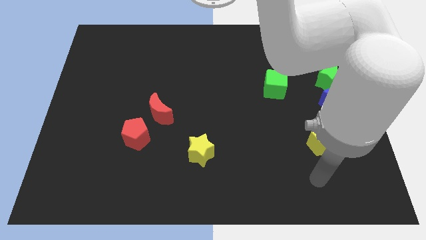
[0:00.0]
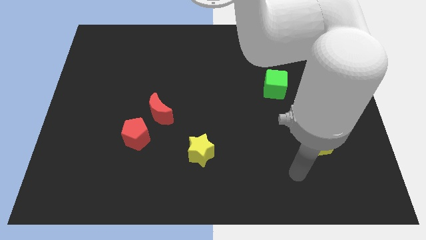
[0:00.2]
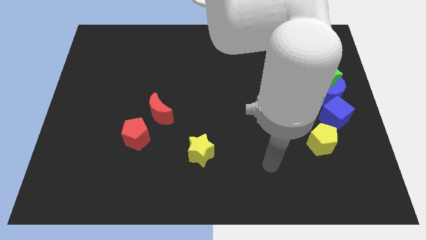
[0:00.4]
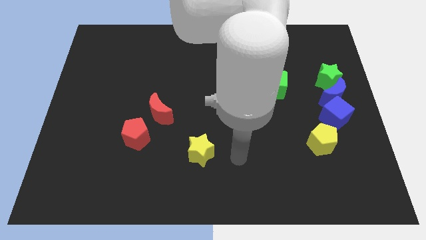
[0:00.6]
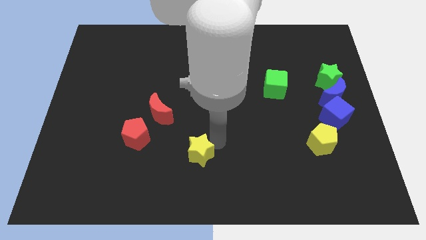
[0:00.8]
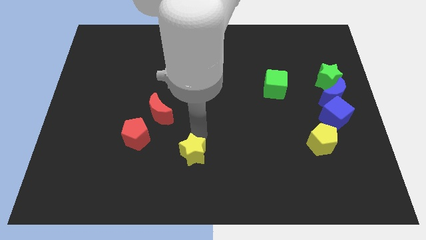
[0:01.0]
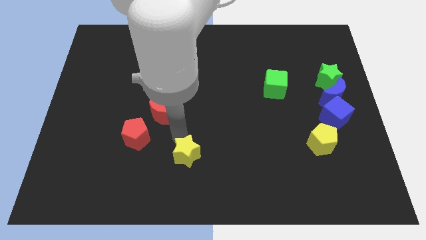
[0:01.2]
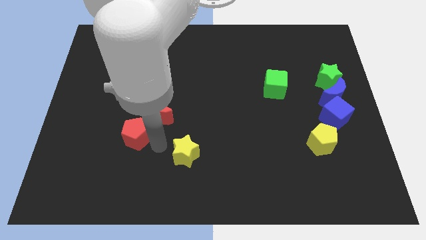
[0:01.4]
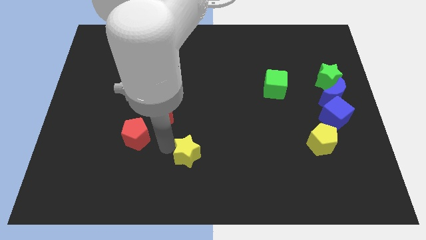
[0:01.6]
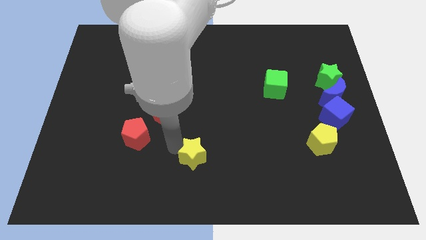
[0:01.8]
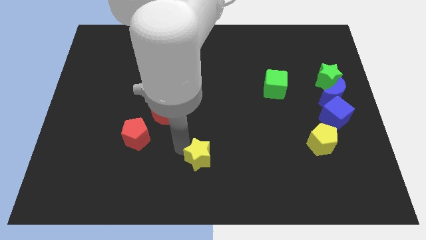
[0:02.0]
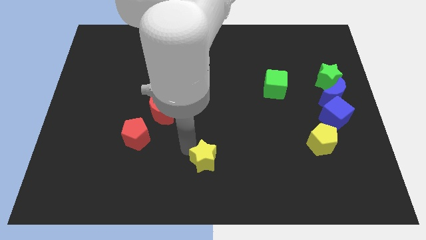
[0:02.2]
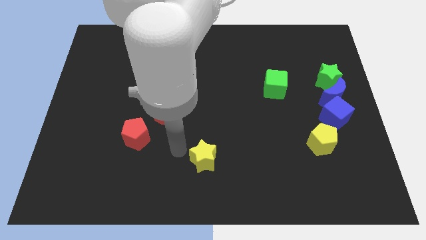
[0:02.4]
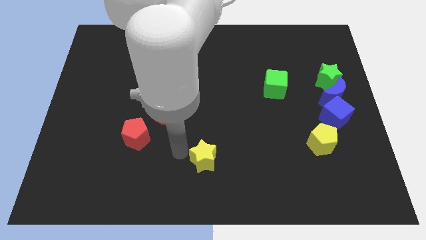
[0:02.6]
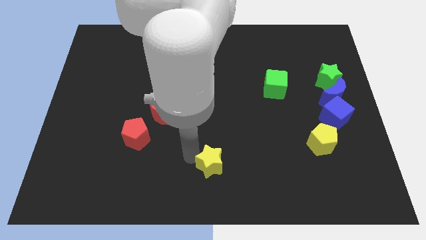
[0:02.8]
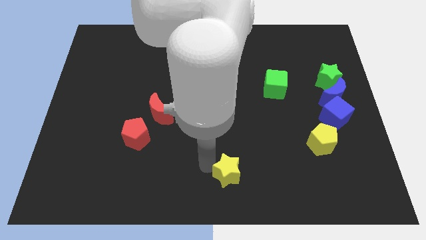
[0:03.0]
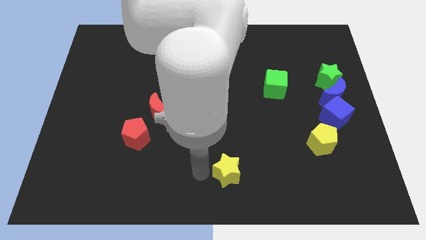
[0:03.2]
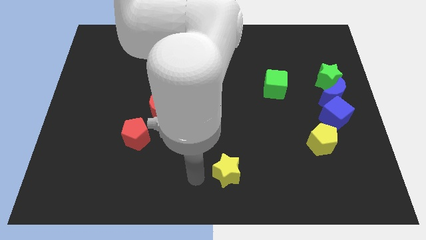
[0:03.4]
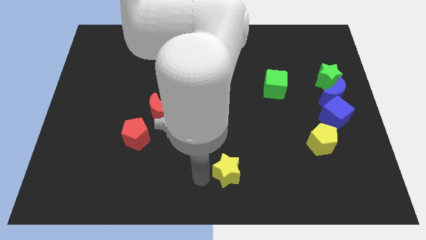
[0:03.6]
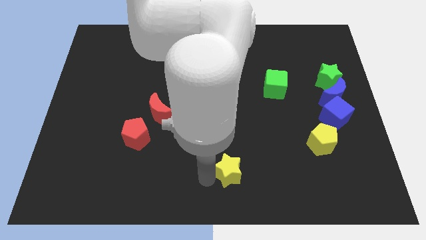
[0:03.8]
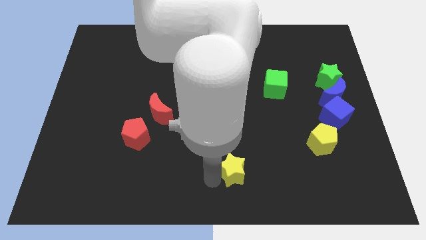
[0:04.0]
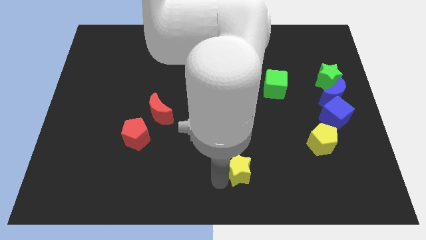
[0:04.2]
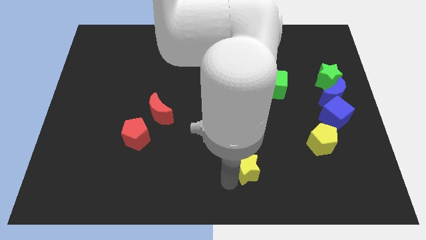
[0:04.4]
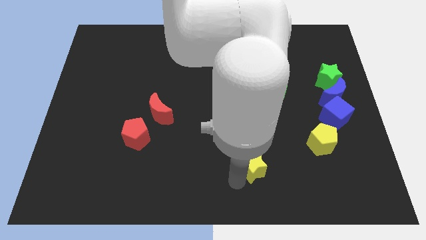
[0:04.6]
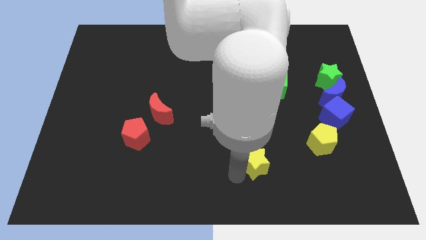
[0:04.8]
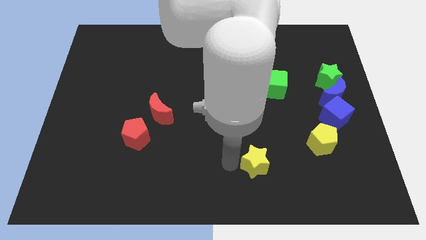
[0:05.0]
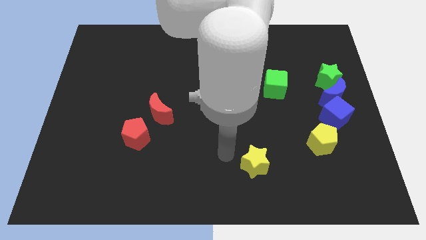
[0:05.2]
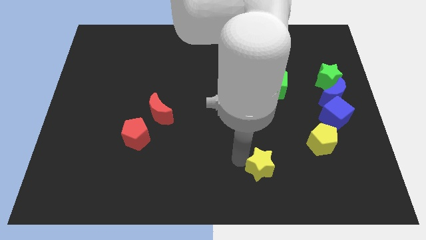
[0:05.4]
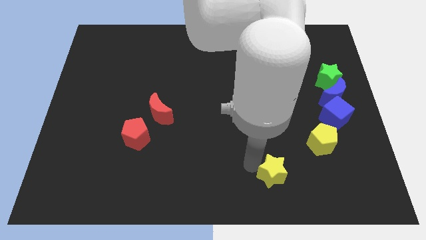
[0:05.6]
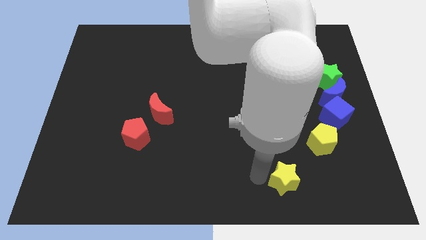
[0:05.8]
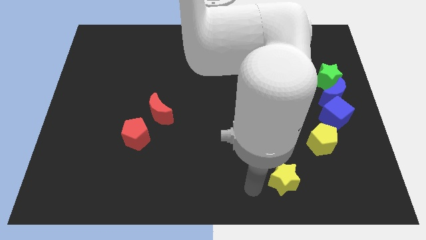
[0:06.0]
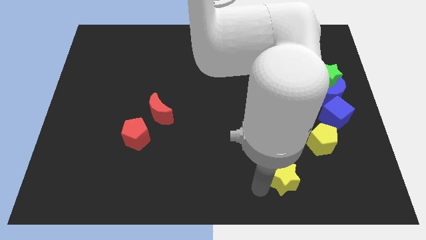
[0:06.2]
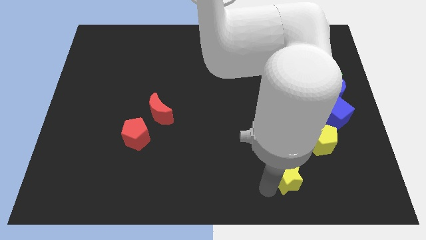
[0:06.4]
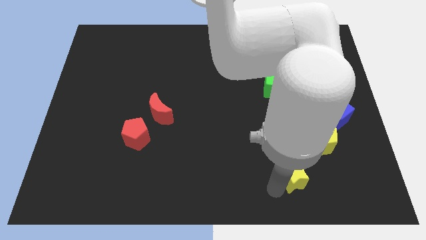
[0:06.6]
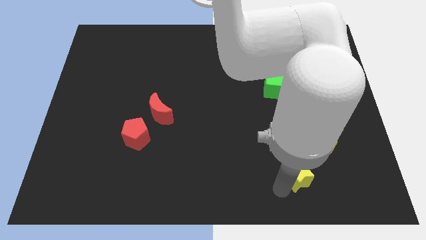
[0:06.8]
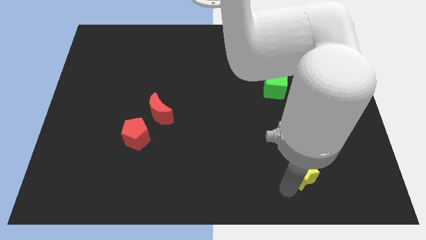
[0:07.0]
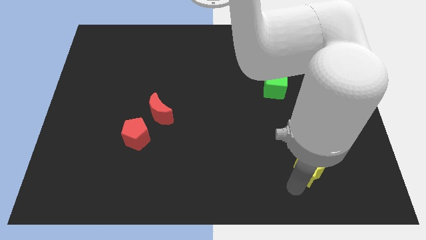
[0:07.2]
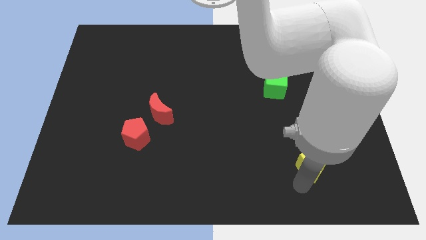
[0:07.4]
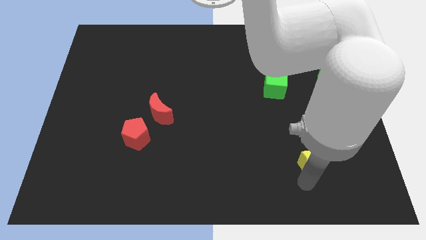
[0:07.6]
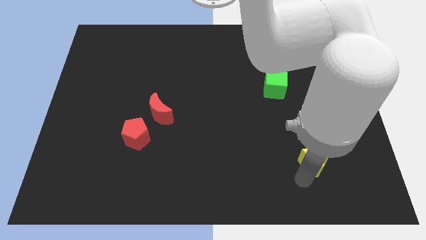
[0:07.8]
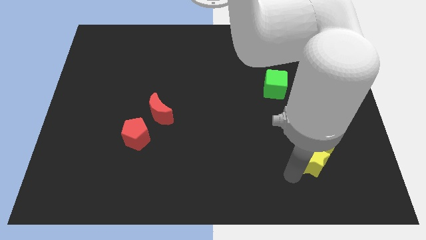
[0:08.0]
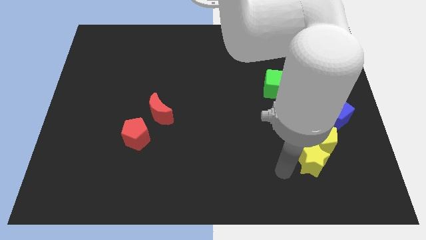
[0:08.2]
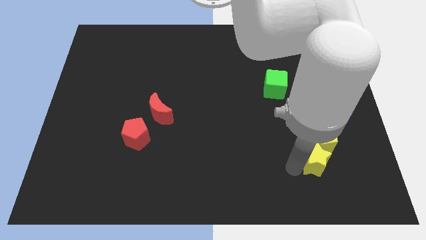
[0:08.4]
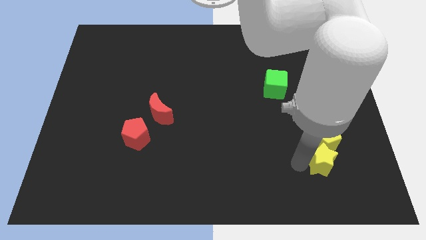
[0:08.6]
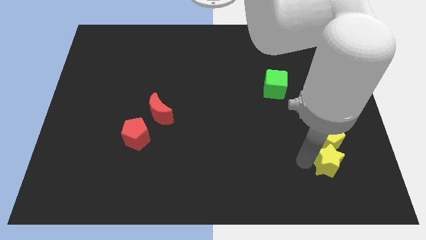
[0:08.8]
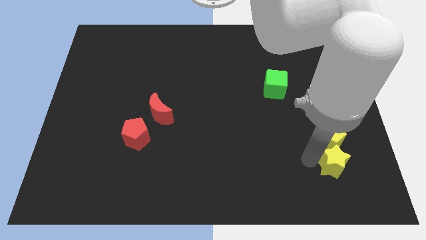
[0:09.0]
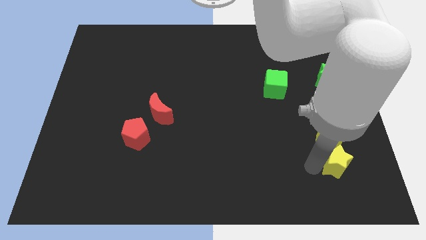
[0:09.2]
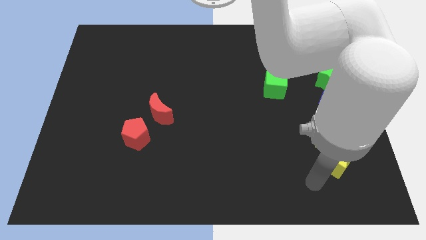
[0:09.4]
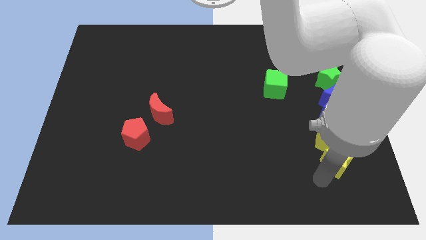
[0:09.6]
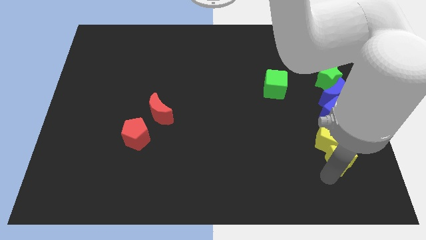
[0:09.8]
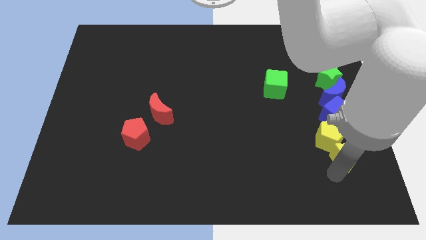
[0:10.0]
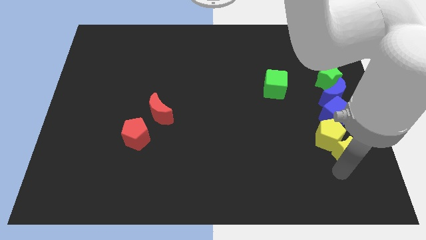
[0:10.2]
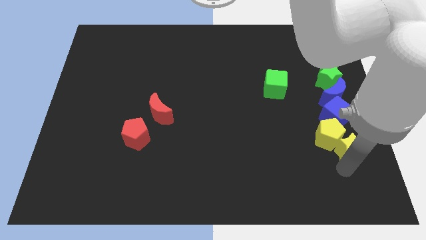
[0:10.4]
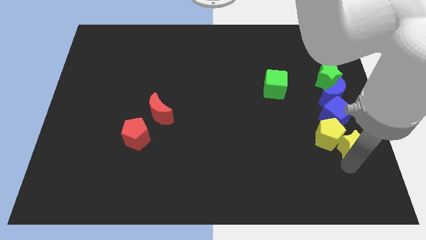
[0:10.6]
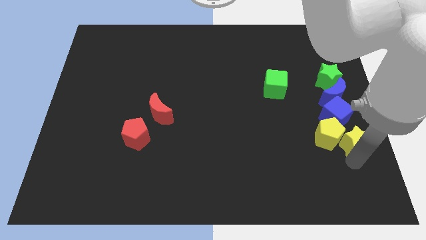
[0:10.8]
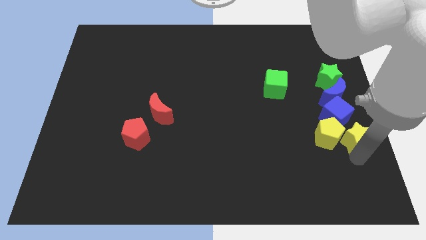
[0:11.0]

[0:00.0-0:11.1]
put the yellow star to the center right

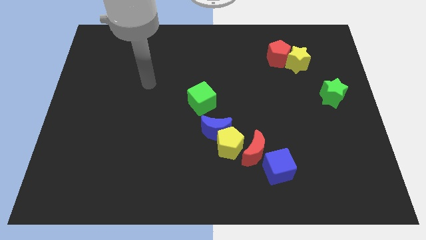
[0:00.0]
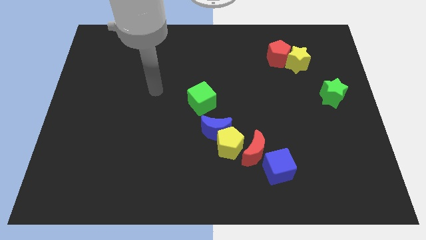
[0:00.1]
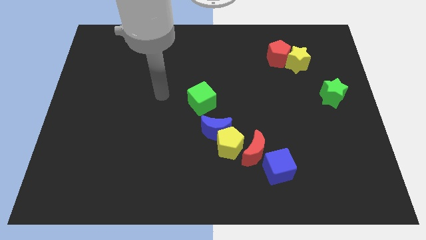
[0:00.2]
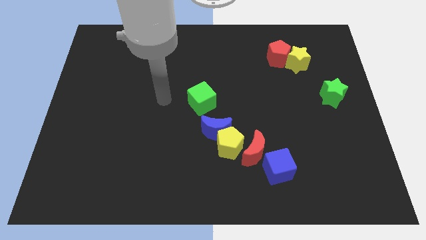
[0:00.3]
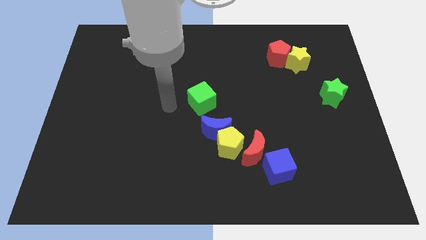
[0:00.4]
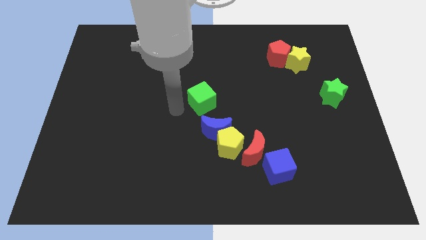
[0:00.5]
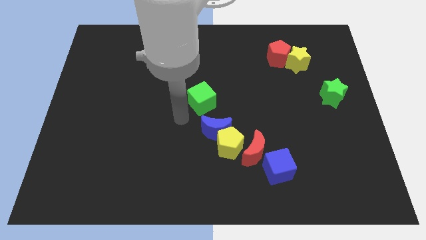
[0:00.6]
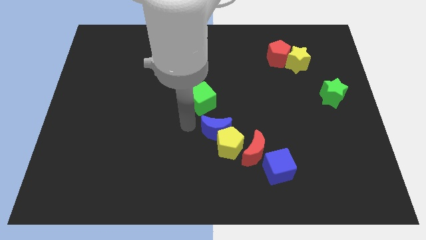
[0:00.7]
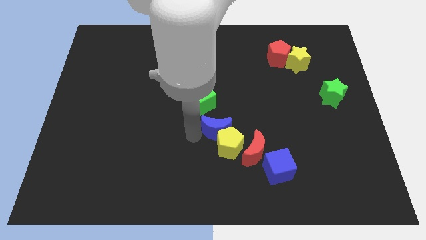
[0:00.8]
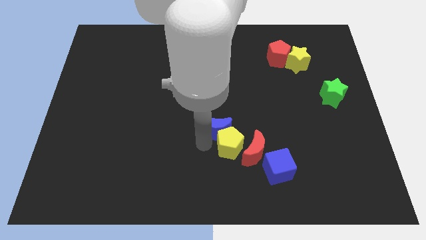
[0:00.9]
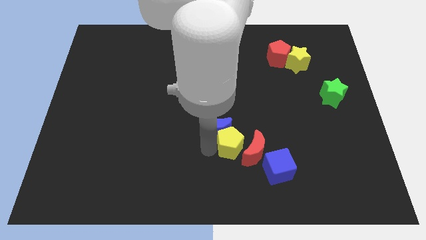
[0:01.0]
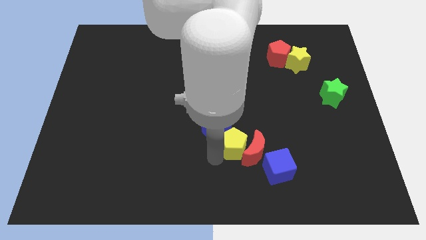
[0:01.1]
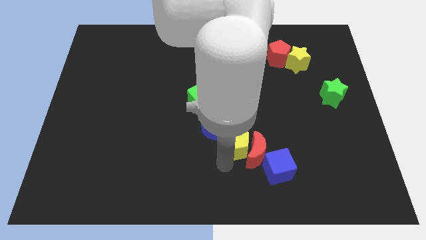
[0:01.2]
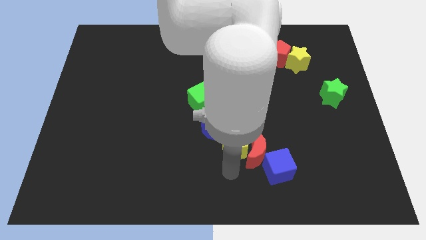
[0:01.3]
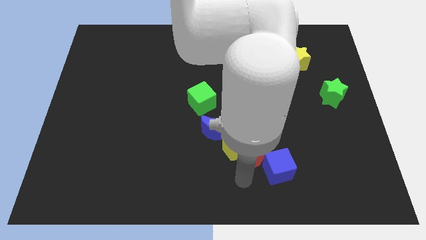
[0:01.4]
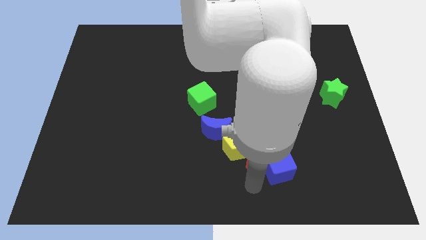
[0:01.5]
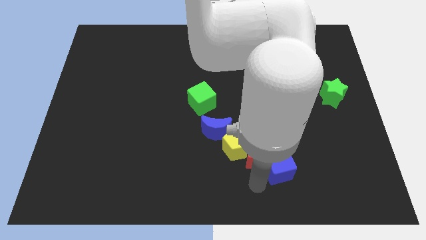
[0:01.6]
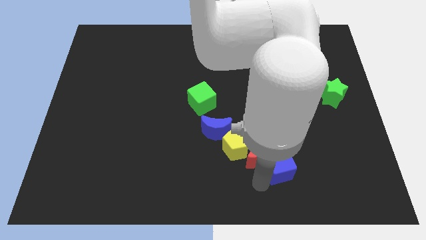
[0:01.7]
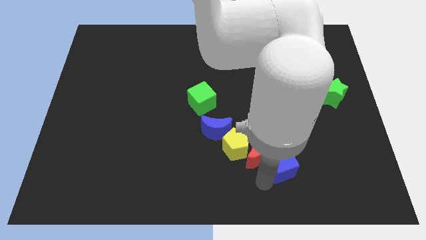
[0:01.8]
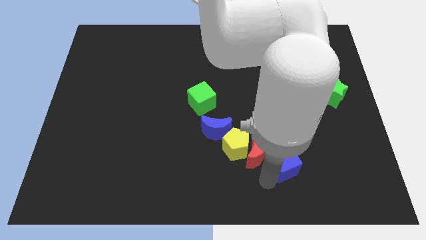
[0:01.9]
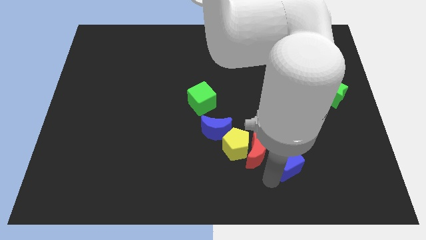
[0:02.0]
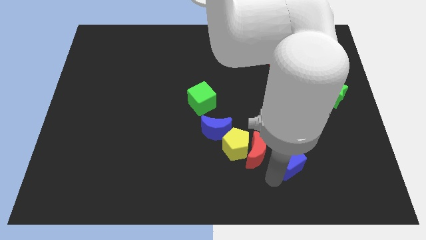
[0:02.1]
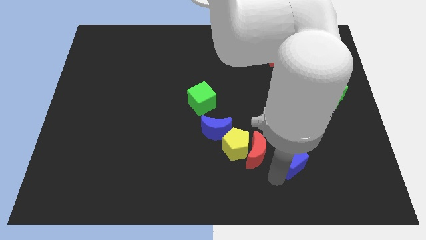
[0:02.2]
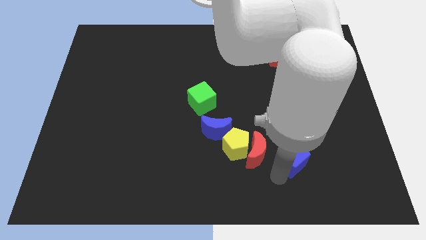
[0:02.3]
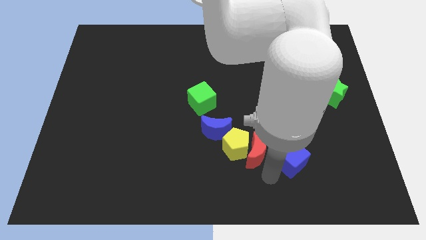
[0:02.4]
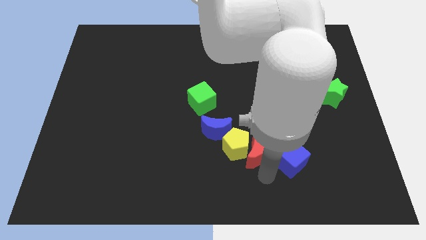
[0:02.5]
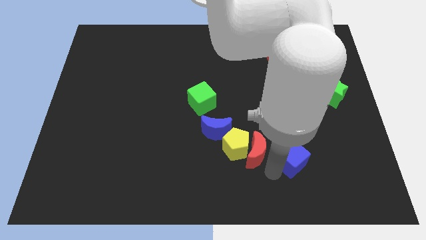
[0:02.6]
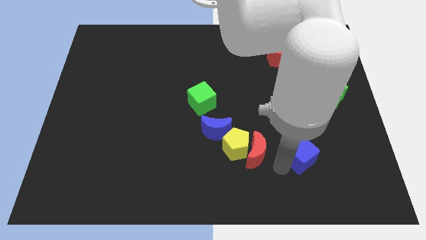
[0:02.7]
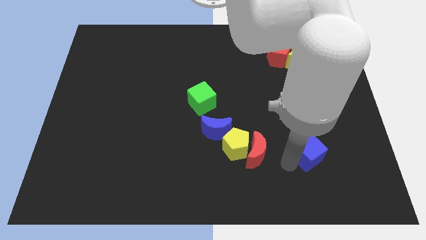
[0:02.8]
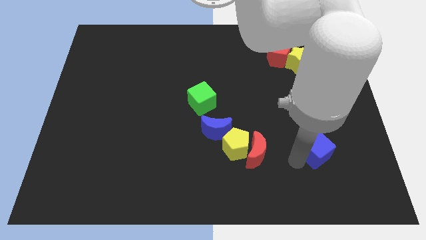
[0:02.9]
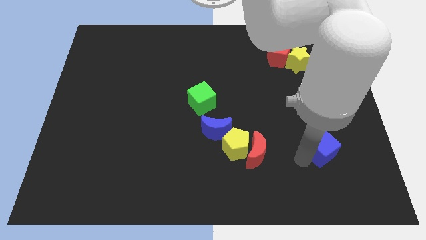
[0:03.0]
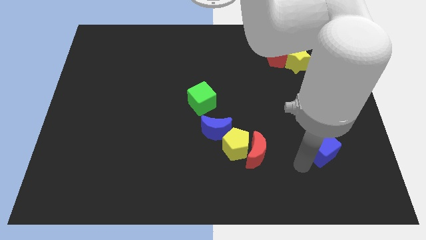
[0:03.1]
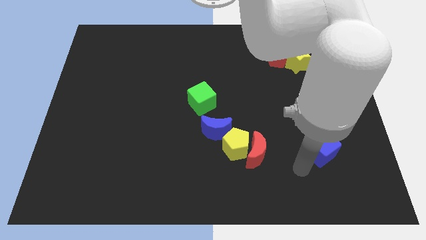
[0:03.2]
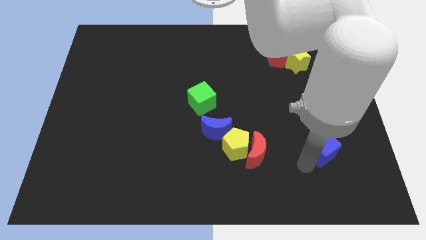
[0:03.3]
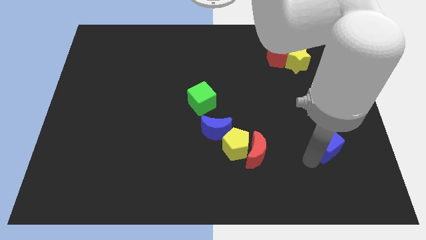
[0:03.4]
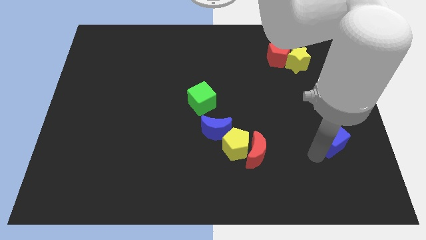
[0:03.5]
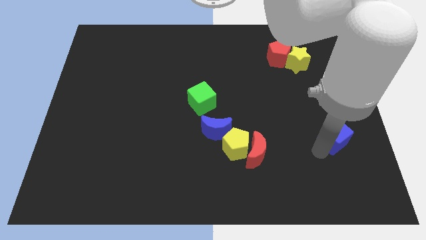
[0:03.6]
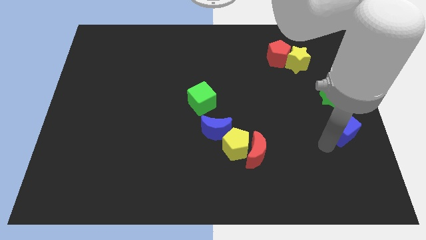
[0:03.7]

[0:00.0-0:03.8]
slide the blue cube to the right side of the board
